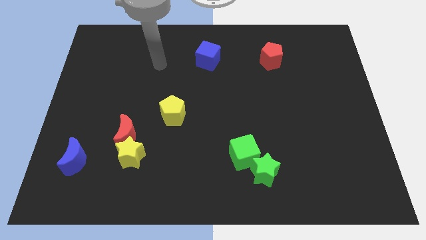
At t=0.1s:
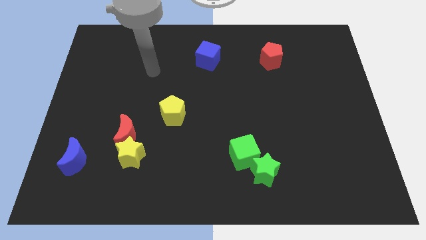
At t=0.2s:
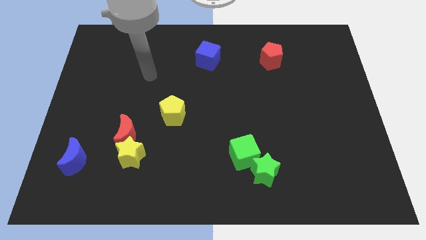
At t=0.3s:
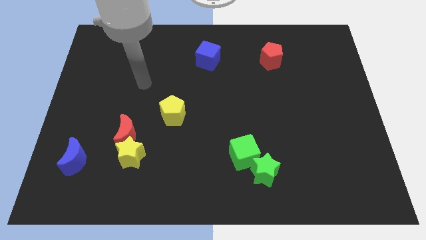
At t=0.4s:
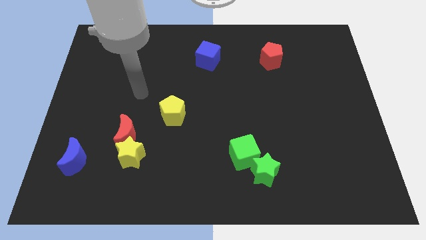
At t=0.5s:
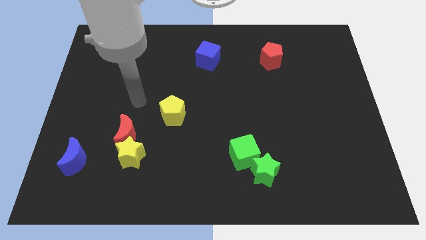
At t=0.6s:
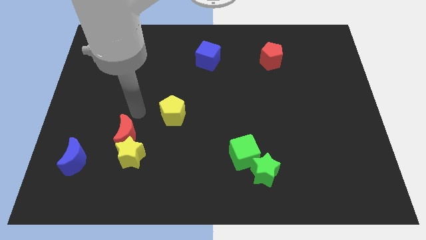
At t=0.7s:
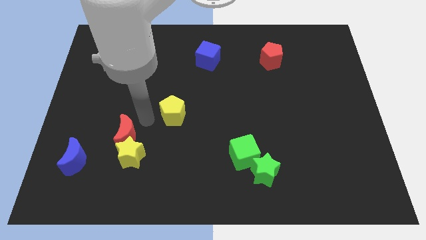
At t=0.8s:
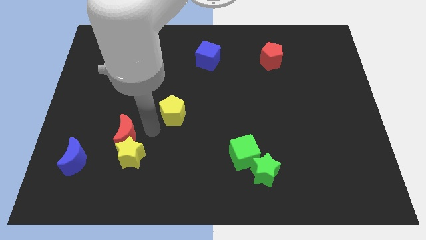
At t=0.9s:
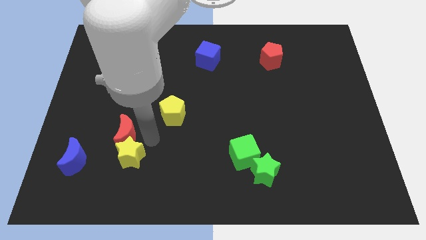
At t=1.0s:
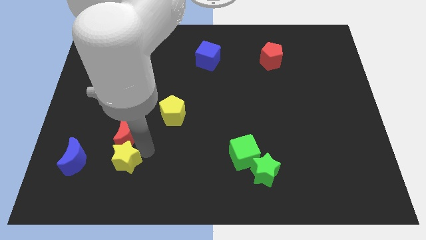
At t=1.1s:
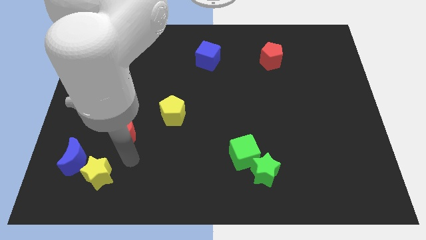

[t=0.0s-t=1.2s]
move the red moon away from the yellow star

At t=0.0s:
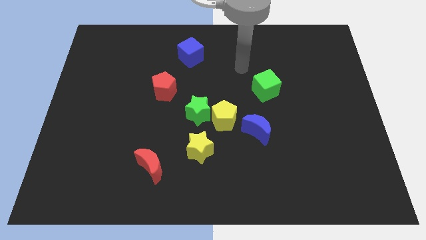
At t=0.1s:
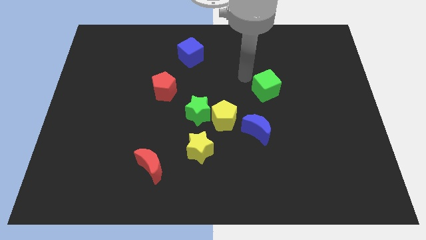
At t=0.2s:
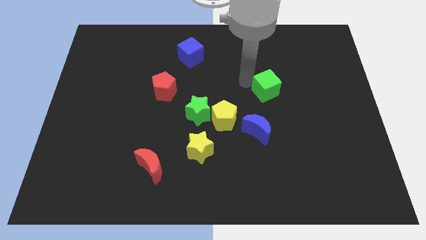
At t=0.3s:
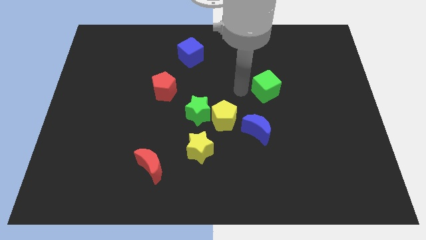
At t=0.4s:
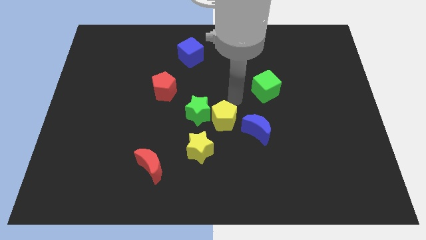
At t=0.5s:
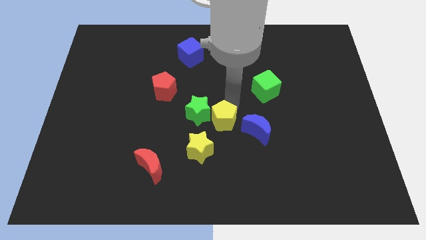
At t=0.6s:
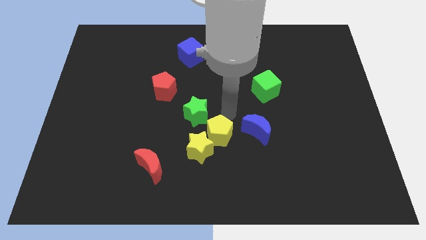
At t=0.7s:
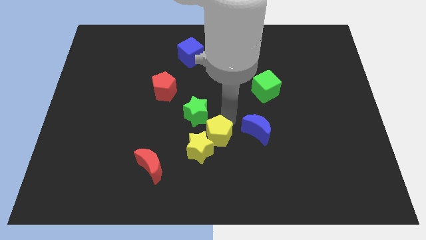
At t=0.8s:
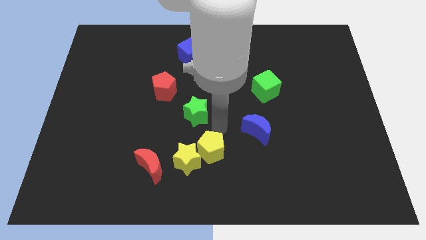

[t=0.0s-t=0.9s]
move the green star away from the yellow pentagon and yellow star

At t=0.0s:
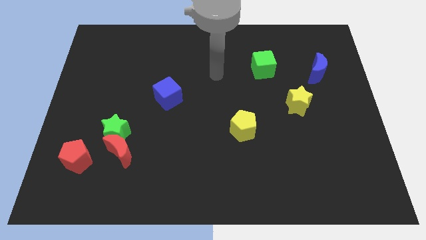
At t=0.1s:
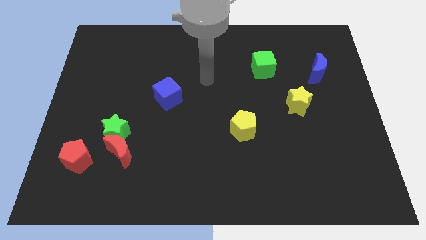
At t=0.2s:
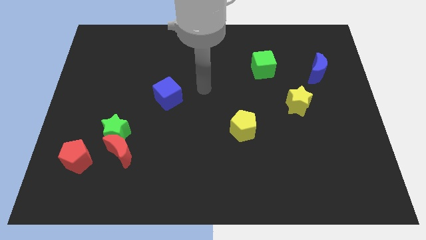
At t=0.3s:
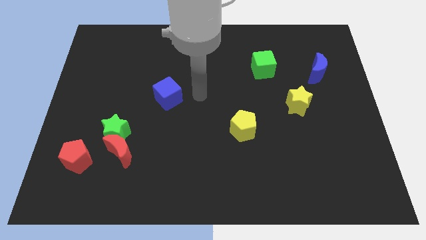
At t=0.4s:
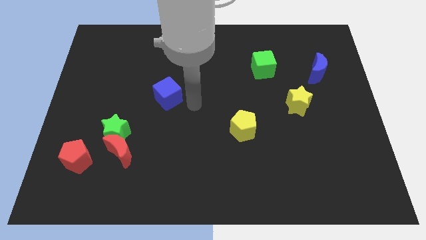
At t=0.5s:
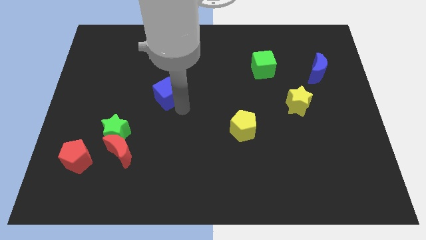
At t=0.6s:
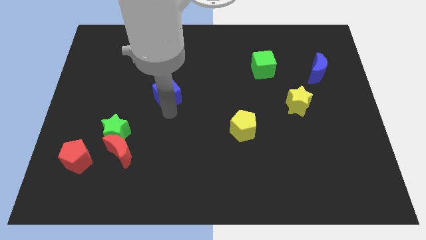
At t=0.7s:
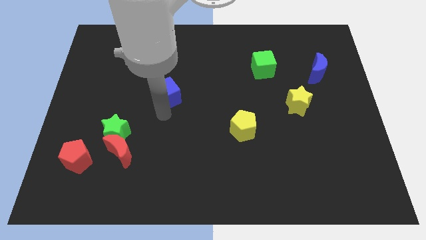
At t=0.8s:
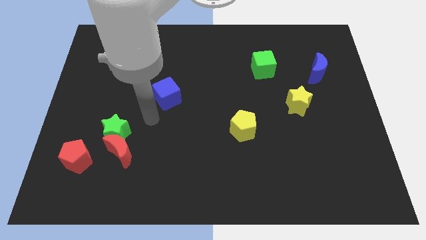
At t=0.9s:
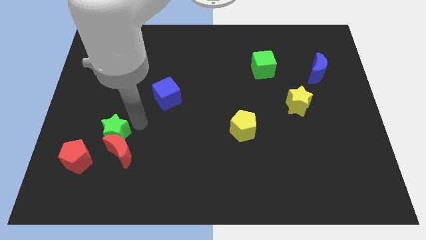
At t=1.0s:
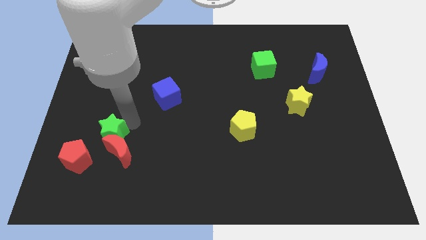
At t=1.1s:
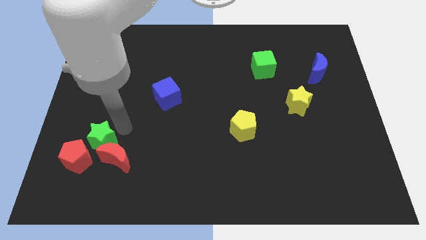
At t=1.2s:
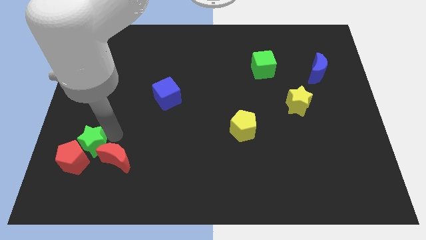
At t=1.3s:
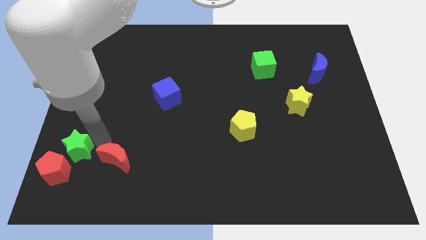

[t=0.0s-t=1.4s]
separate the red moon from the green star and red pentagon

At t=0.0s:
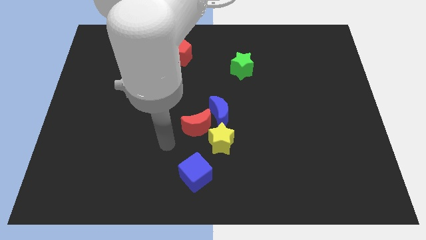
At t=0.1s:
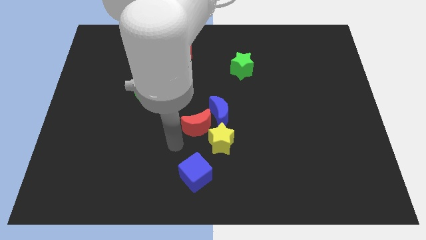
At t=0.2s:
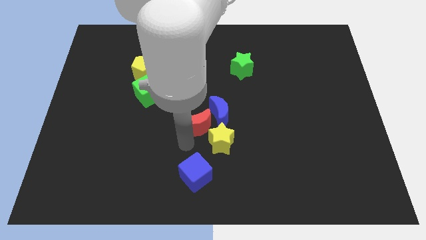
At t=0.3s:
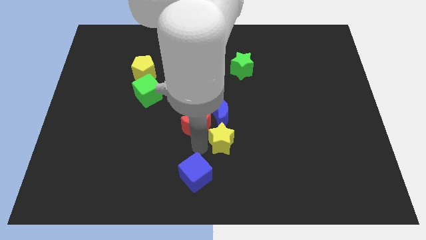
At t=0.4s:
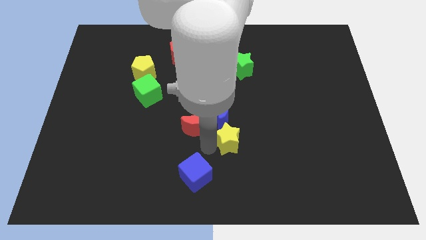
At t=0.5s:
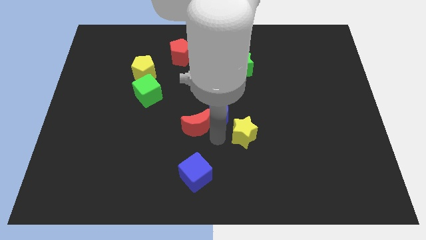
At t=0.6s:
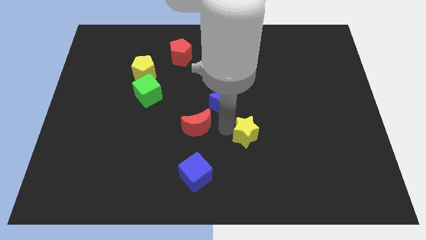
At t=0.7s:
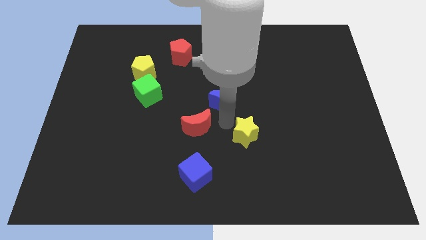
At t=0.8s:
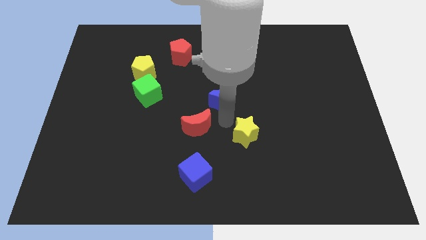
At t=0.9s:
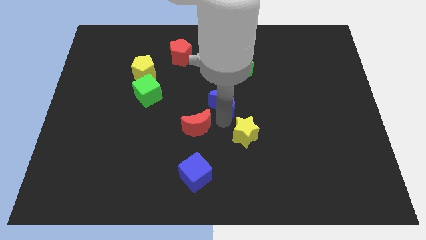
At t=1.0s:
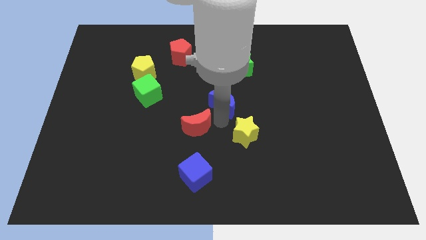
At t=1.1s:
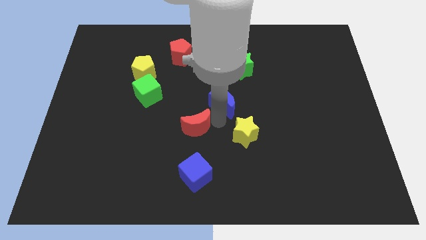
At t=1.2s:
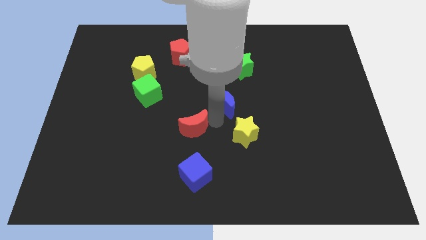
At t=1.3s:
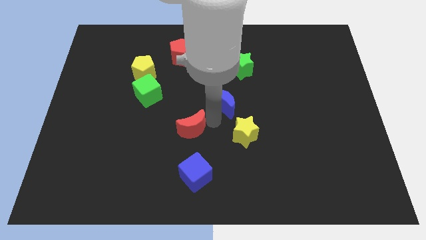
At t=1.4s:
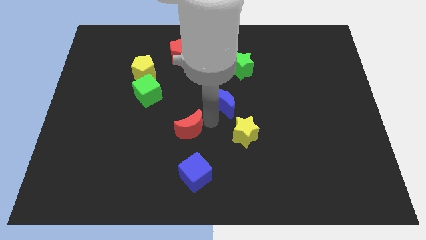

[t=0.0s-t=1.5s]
move the red moon away from the blue moon and yellow star

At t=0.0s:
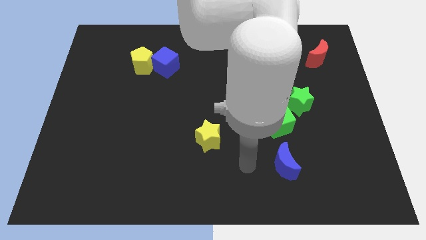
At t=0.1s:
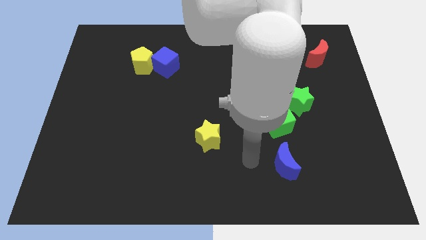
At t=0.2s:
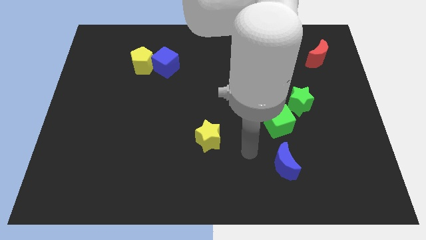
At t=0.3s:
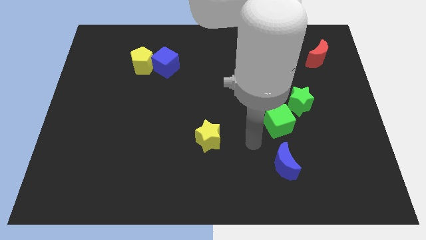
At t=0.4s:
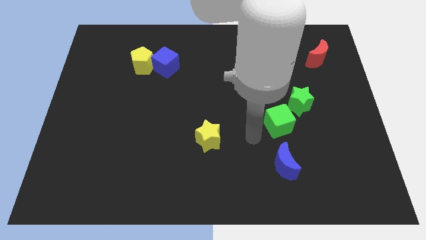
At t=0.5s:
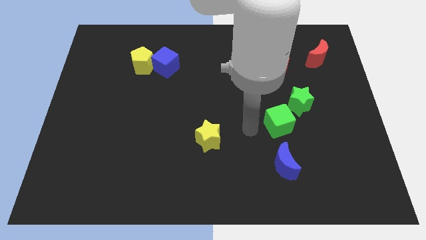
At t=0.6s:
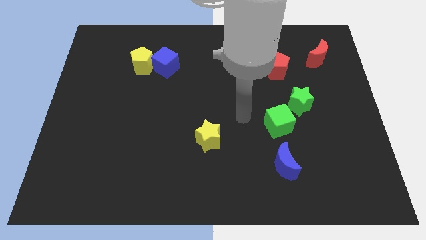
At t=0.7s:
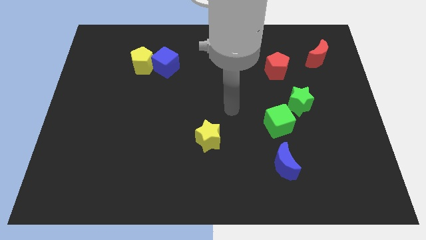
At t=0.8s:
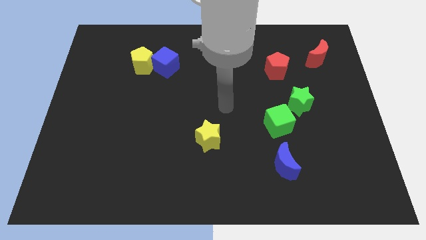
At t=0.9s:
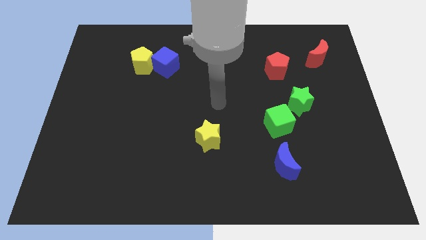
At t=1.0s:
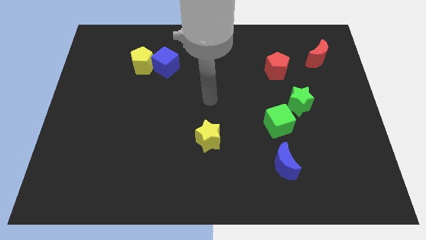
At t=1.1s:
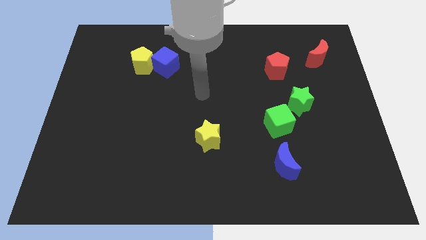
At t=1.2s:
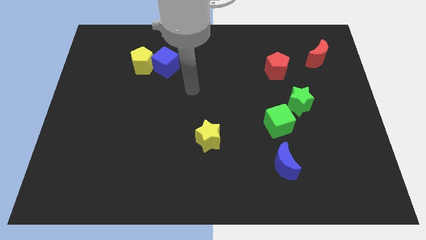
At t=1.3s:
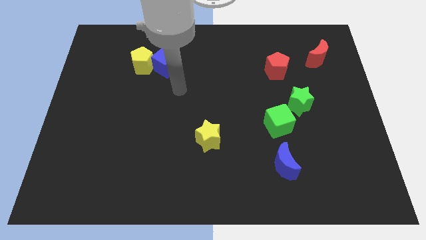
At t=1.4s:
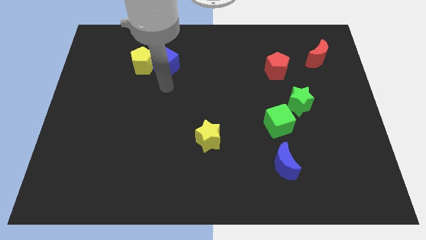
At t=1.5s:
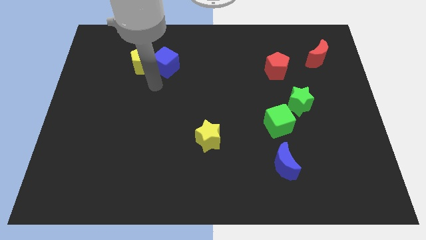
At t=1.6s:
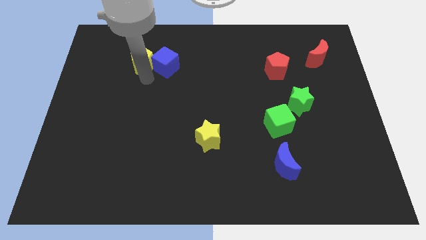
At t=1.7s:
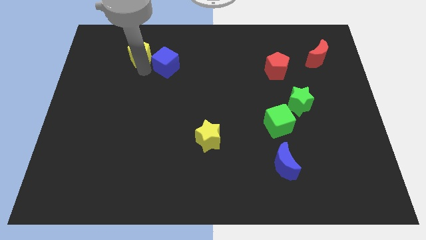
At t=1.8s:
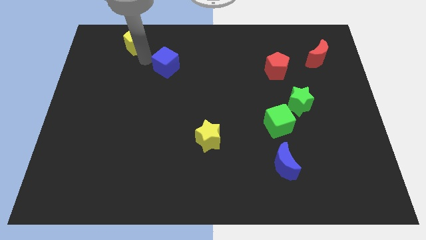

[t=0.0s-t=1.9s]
separate the blue cube from the yellow pentagon

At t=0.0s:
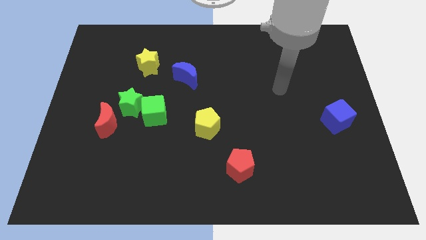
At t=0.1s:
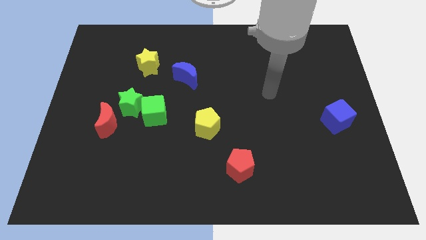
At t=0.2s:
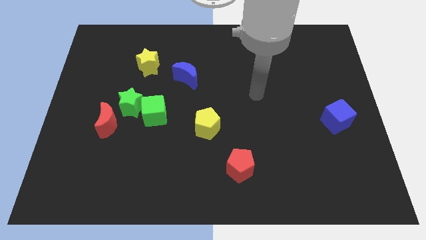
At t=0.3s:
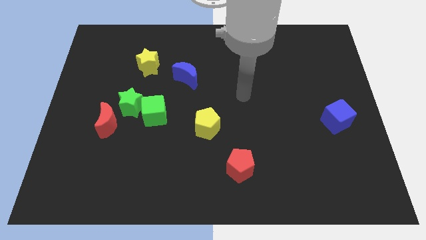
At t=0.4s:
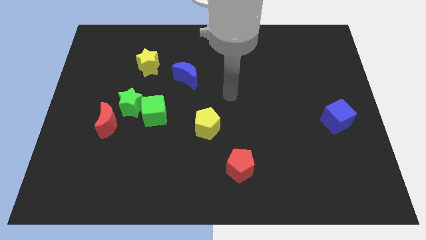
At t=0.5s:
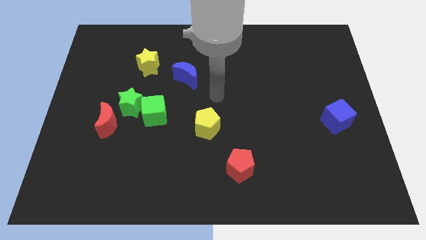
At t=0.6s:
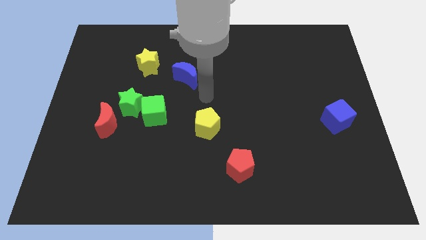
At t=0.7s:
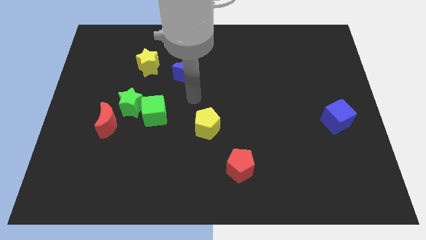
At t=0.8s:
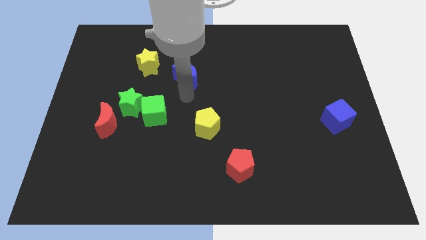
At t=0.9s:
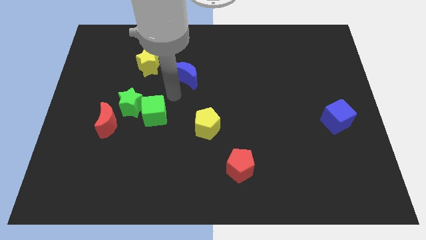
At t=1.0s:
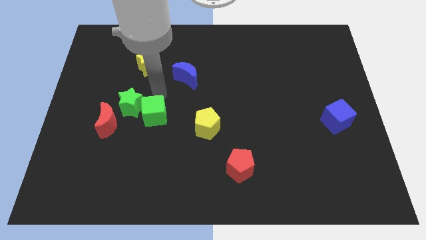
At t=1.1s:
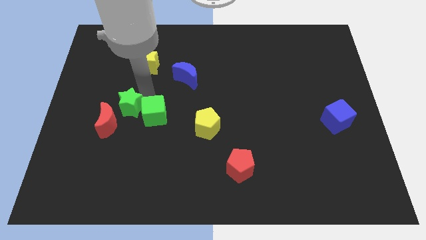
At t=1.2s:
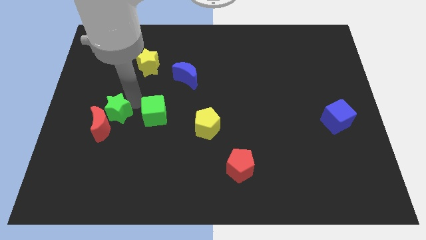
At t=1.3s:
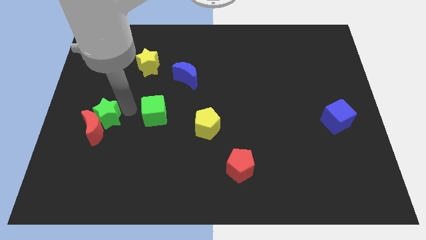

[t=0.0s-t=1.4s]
pull the green cube apart from the green star

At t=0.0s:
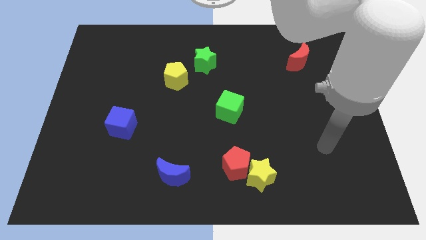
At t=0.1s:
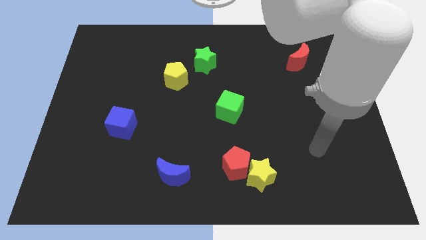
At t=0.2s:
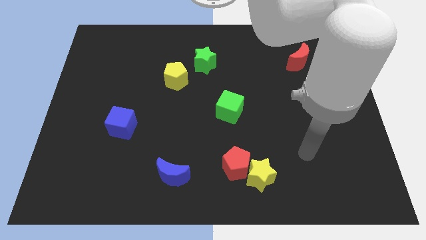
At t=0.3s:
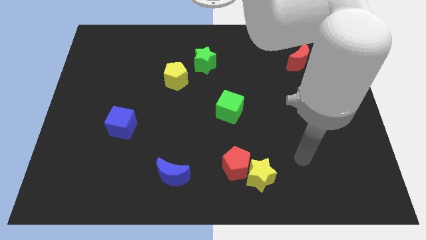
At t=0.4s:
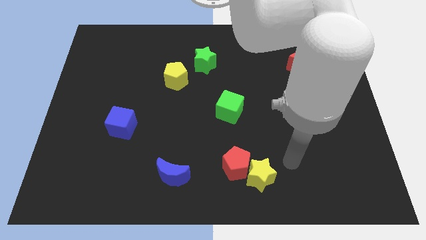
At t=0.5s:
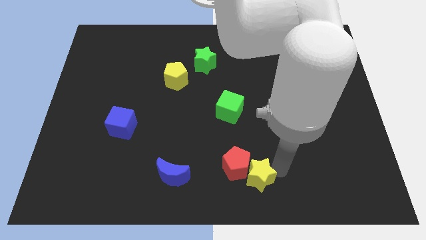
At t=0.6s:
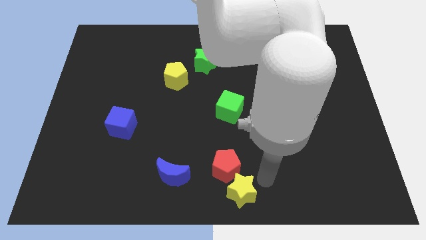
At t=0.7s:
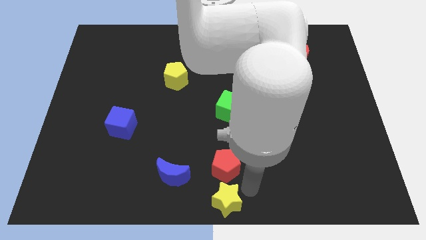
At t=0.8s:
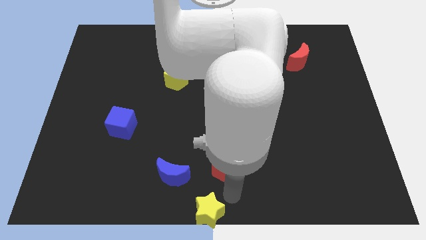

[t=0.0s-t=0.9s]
pull the red pentagon apart from the yellow star
